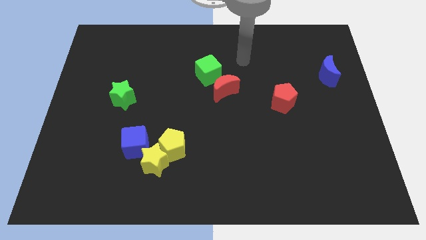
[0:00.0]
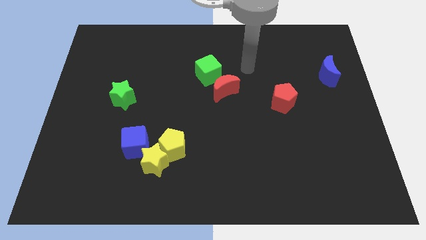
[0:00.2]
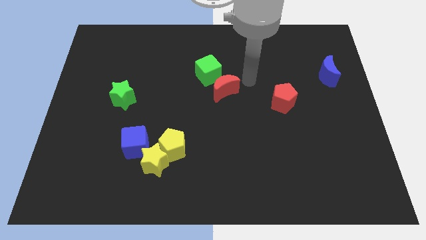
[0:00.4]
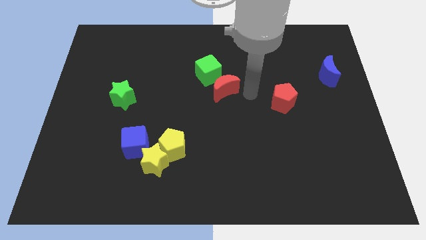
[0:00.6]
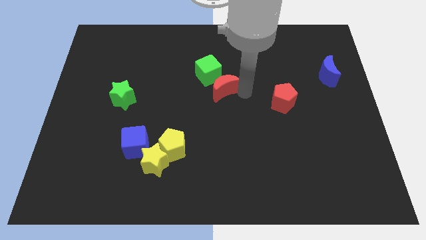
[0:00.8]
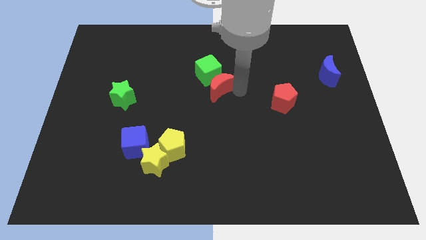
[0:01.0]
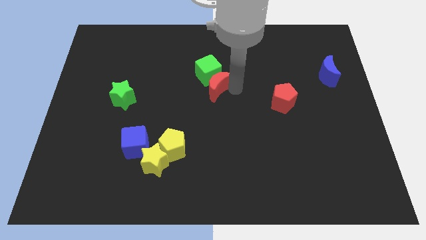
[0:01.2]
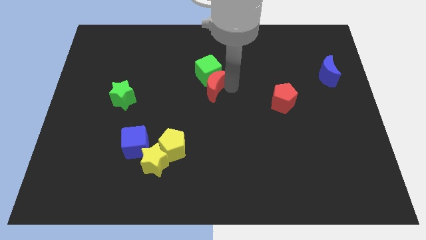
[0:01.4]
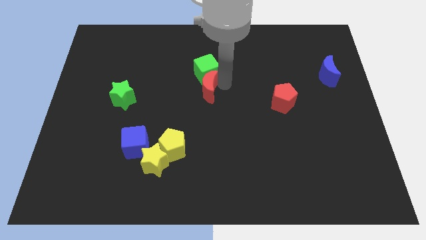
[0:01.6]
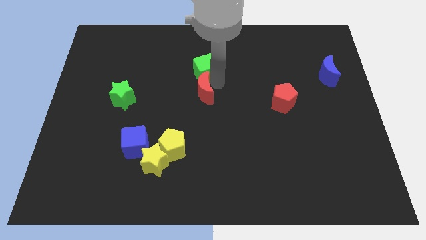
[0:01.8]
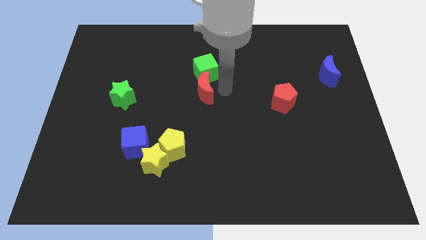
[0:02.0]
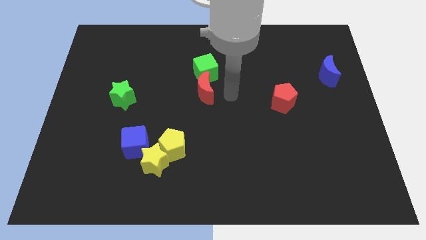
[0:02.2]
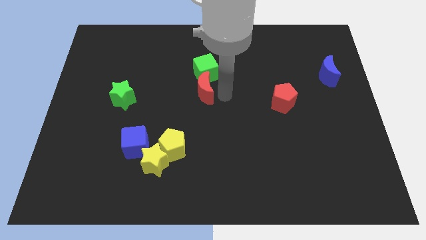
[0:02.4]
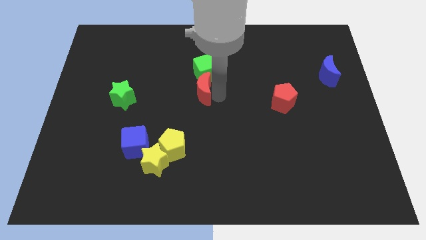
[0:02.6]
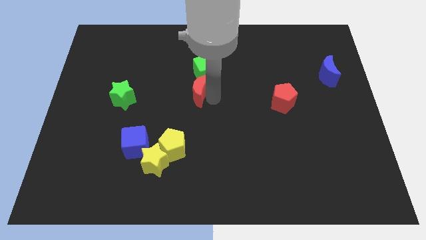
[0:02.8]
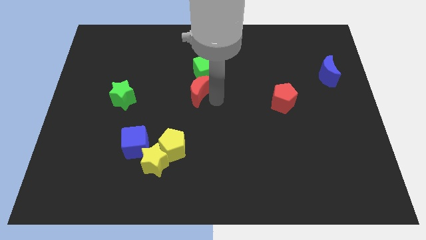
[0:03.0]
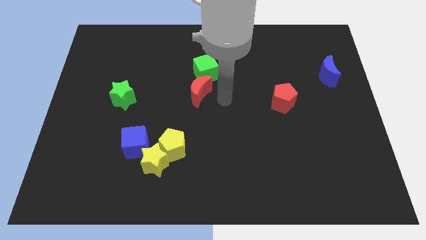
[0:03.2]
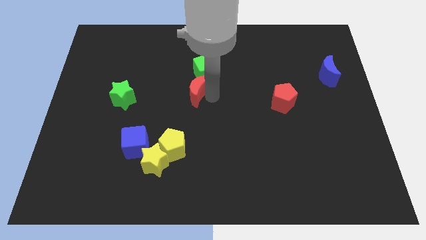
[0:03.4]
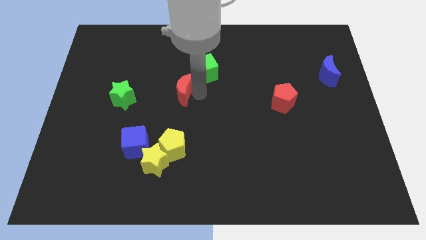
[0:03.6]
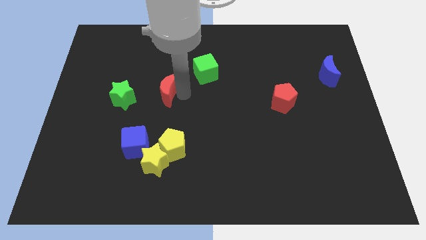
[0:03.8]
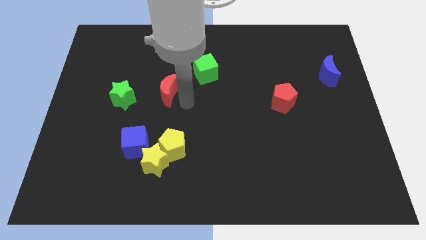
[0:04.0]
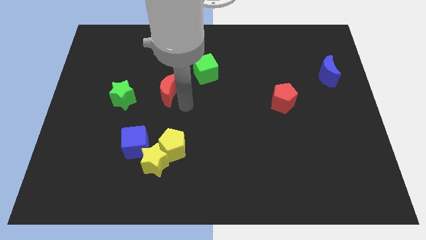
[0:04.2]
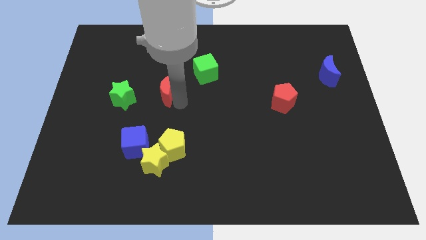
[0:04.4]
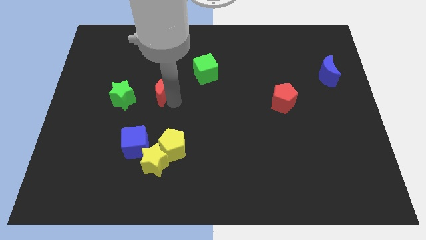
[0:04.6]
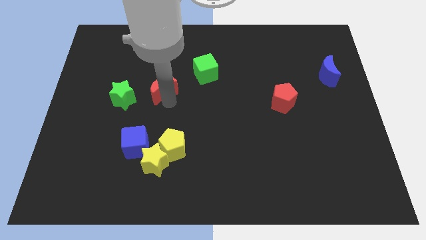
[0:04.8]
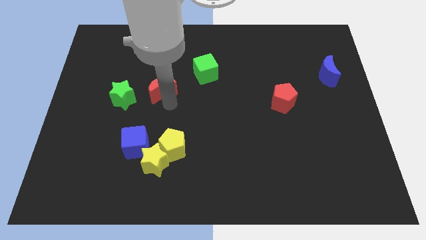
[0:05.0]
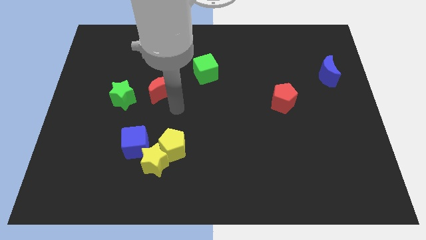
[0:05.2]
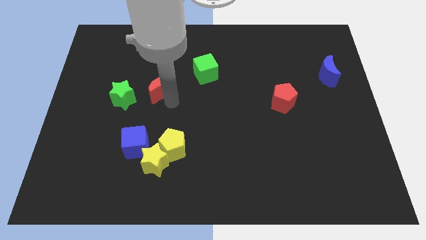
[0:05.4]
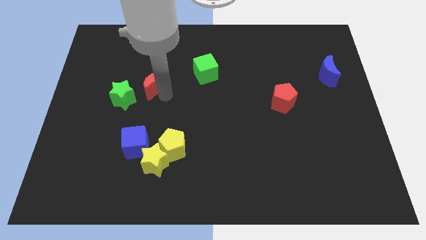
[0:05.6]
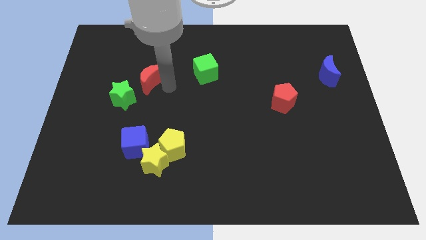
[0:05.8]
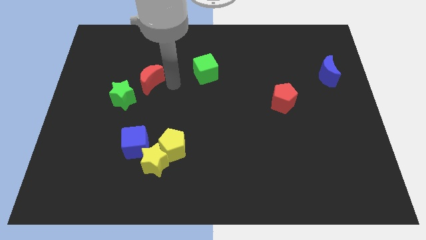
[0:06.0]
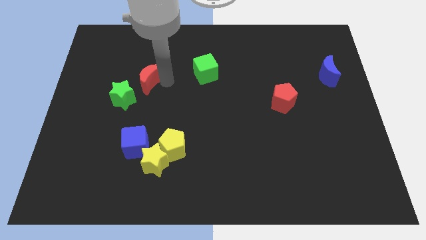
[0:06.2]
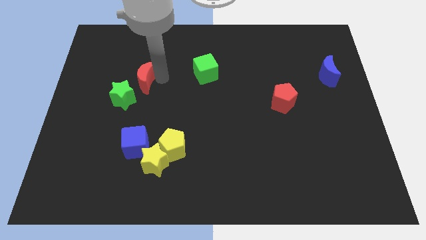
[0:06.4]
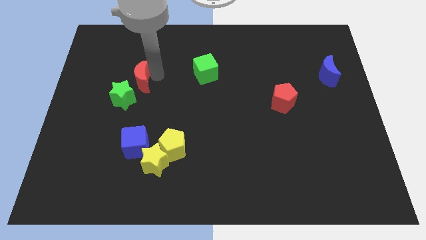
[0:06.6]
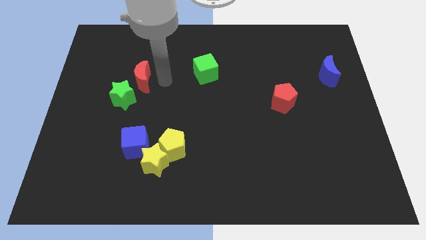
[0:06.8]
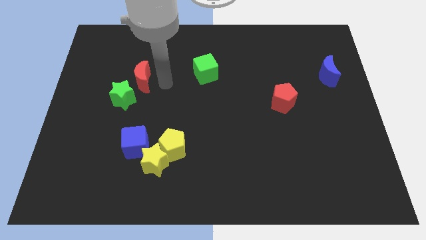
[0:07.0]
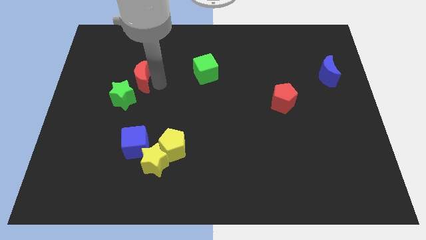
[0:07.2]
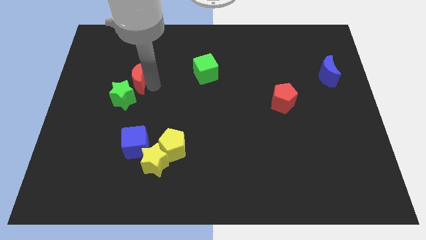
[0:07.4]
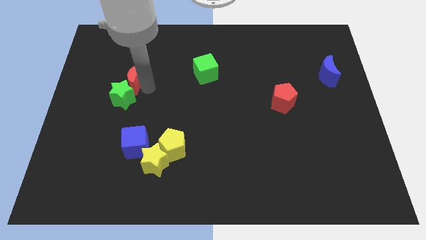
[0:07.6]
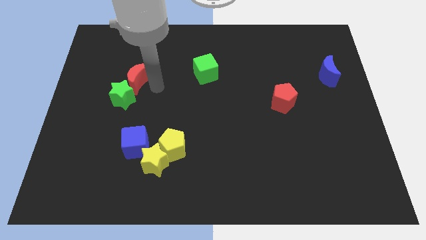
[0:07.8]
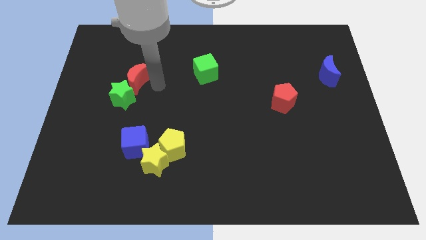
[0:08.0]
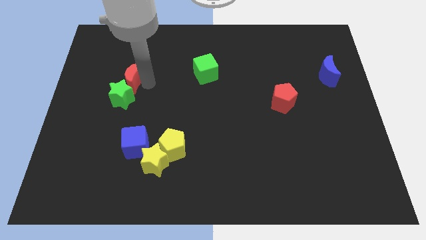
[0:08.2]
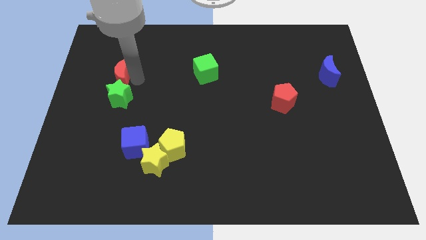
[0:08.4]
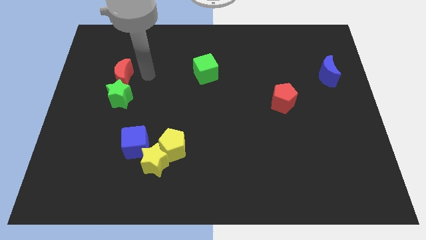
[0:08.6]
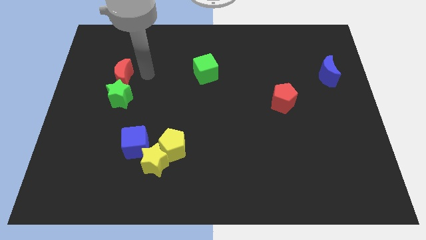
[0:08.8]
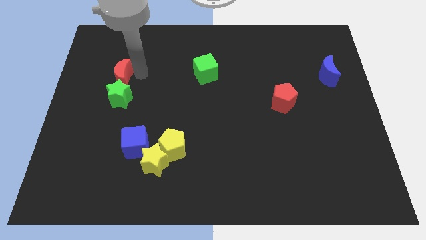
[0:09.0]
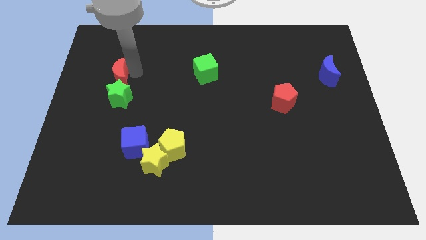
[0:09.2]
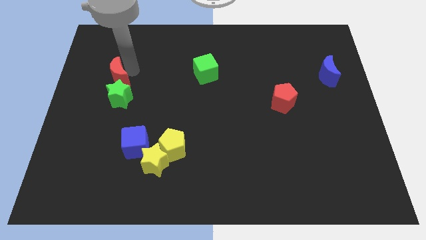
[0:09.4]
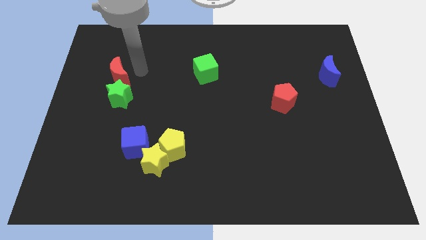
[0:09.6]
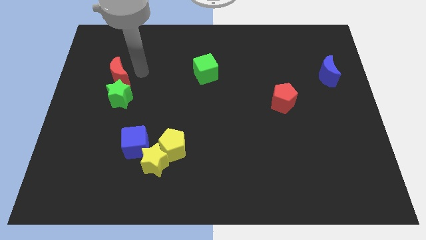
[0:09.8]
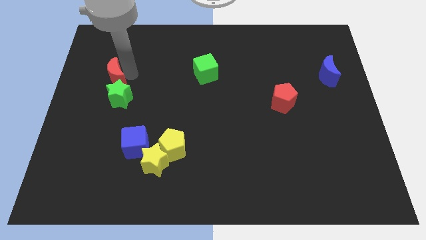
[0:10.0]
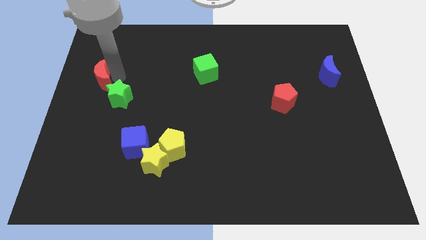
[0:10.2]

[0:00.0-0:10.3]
put the red moon to the center left

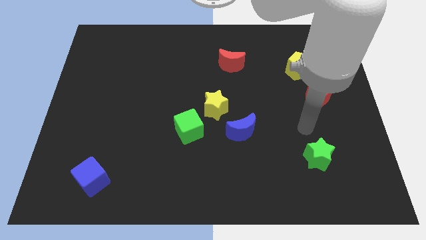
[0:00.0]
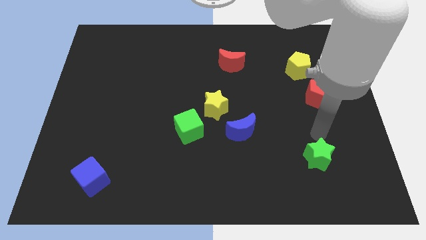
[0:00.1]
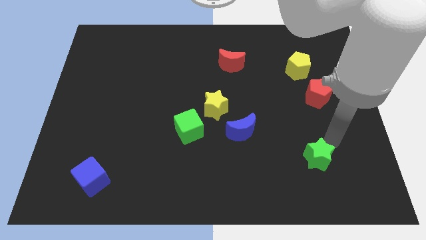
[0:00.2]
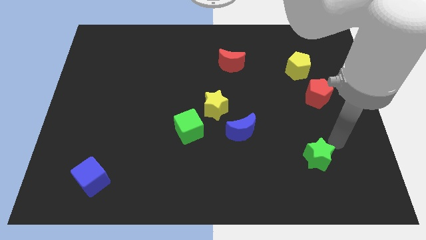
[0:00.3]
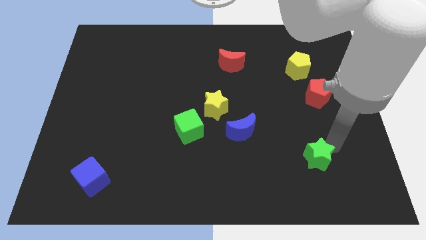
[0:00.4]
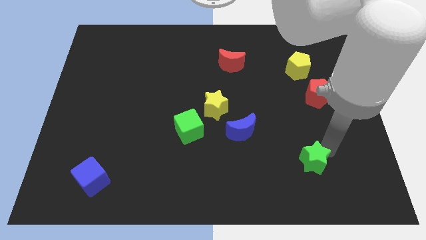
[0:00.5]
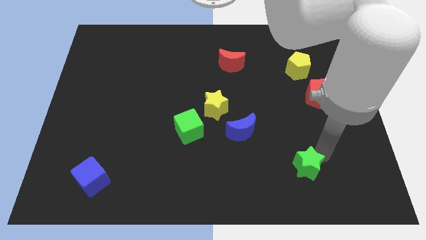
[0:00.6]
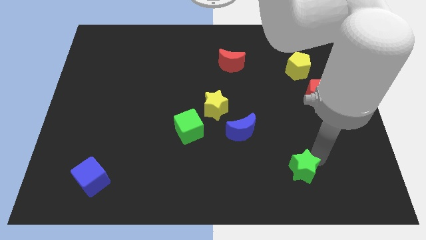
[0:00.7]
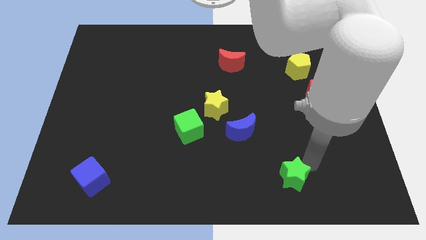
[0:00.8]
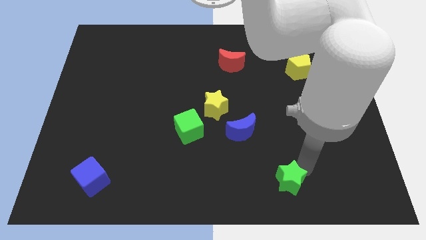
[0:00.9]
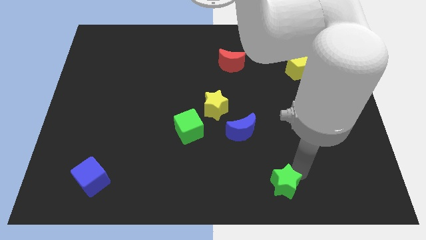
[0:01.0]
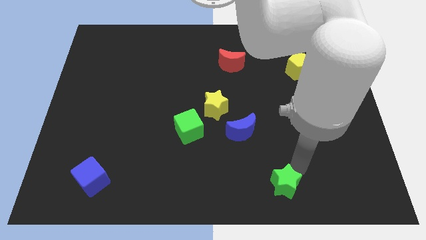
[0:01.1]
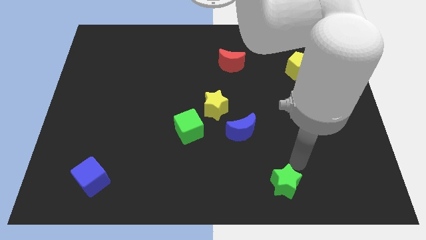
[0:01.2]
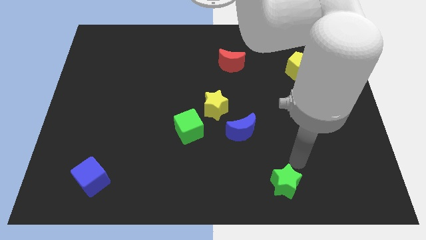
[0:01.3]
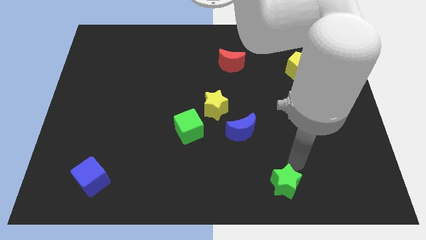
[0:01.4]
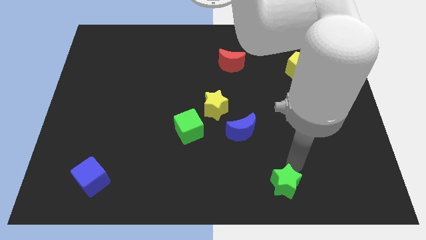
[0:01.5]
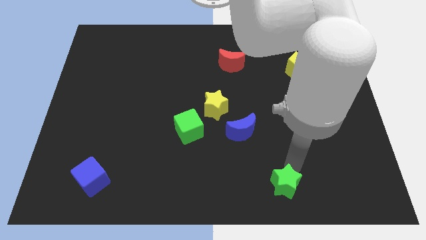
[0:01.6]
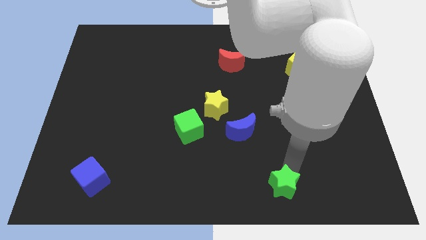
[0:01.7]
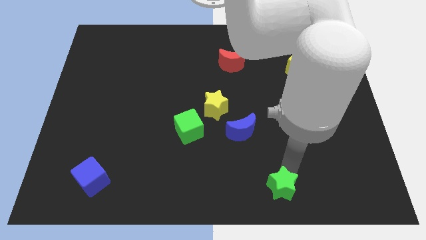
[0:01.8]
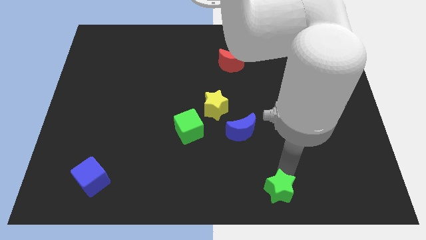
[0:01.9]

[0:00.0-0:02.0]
put the green star to the bottom
